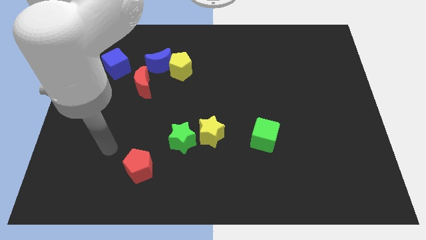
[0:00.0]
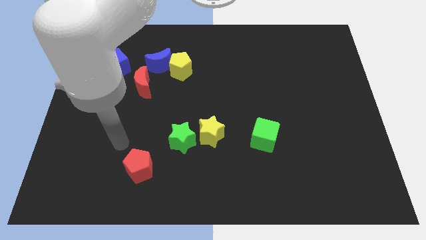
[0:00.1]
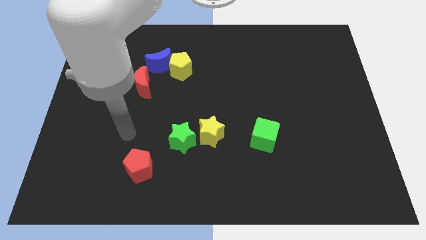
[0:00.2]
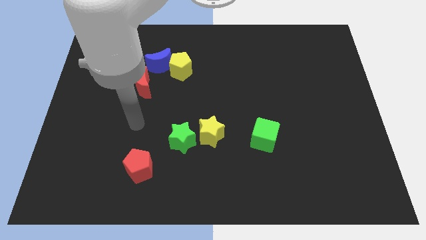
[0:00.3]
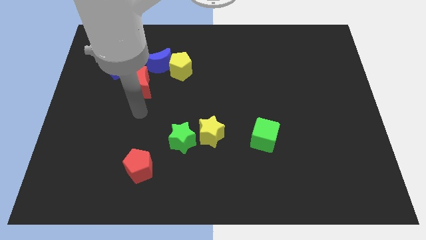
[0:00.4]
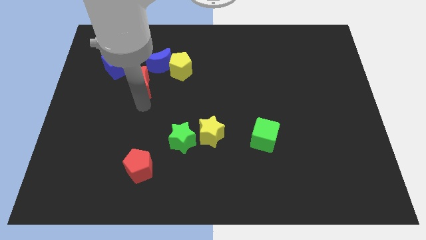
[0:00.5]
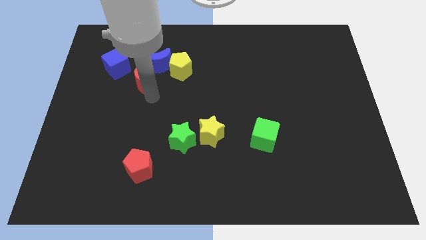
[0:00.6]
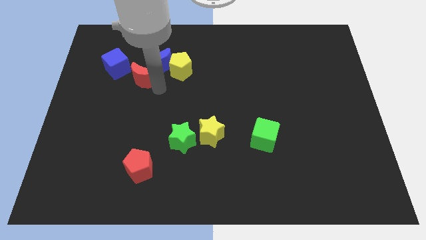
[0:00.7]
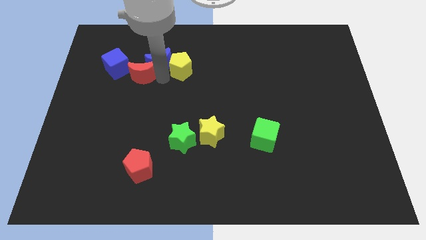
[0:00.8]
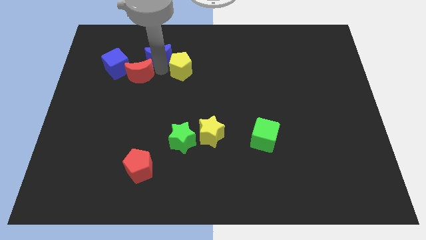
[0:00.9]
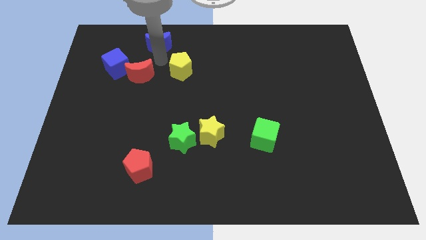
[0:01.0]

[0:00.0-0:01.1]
separate the yellow pentagon from the blue moon

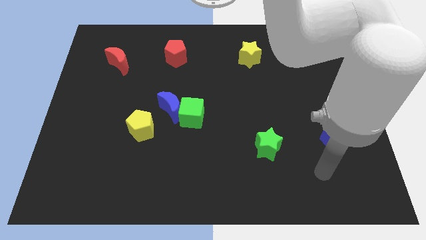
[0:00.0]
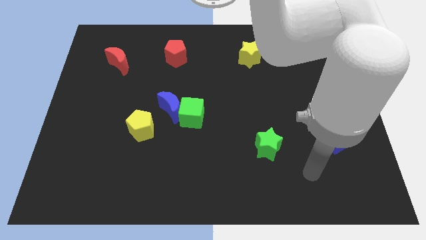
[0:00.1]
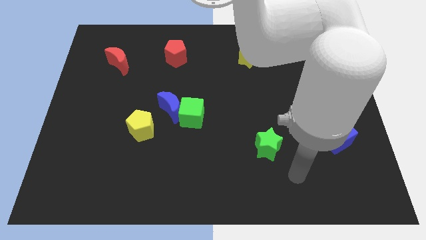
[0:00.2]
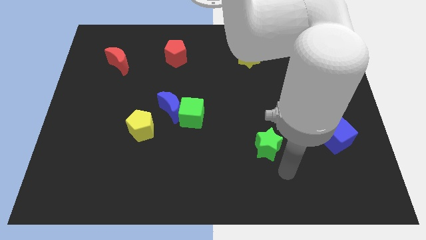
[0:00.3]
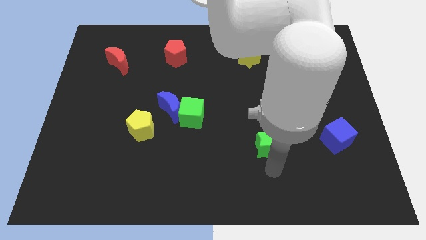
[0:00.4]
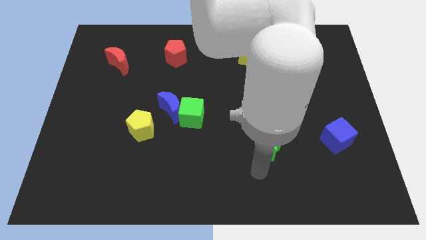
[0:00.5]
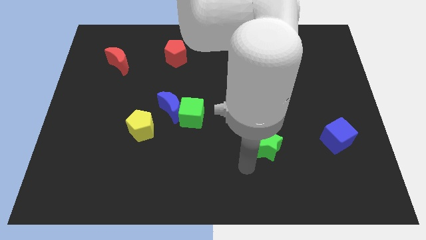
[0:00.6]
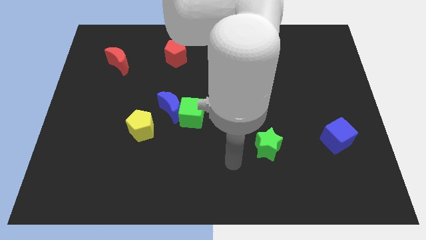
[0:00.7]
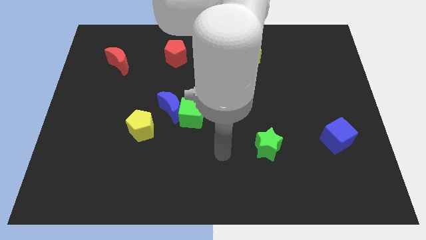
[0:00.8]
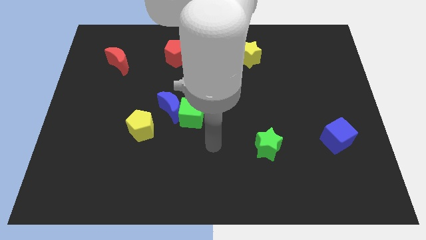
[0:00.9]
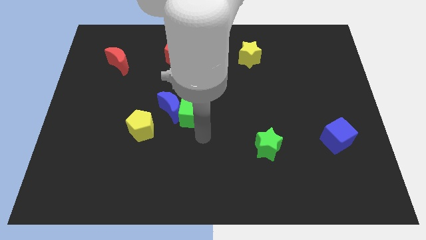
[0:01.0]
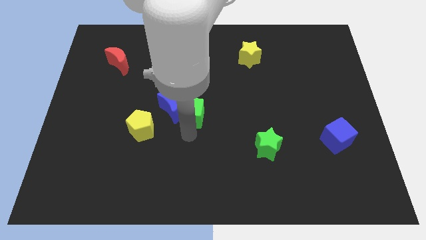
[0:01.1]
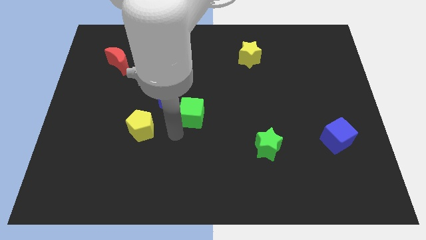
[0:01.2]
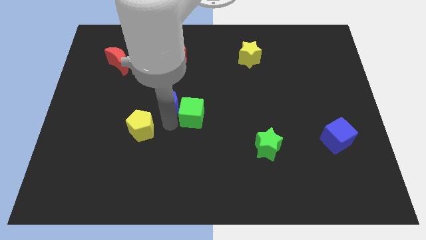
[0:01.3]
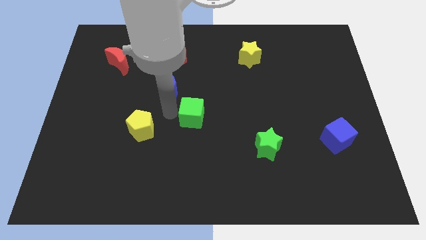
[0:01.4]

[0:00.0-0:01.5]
move the green cube away from the blue moon

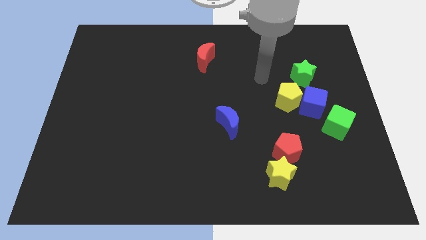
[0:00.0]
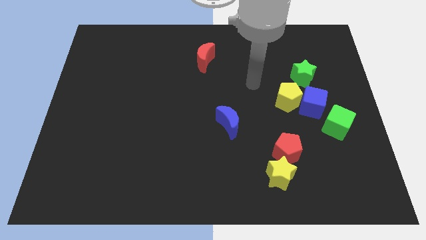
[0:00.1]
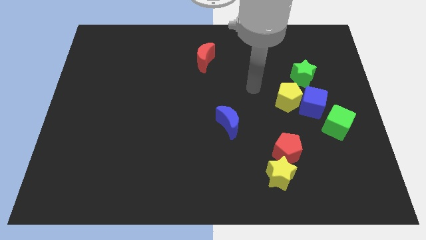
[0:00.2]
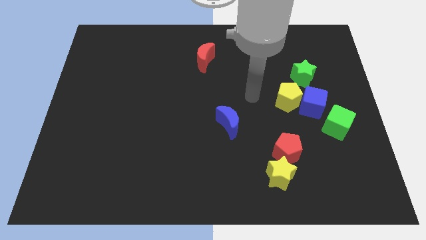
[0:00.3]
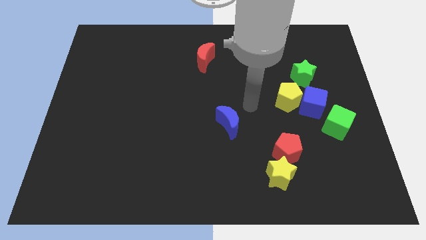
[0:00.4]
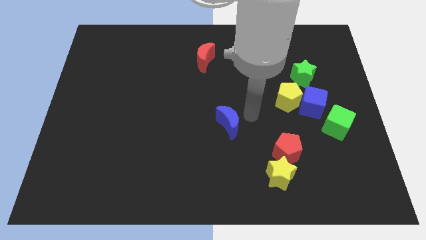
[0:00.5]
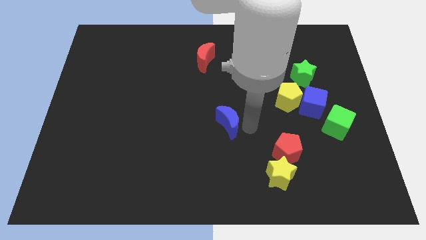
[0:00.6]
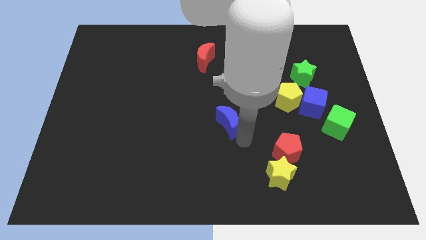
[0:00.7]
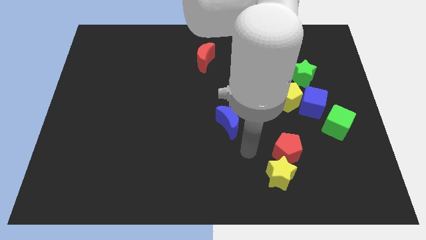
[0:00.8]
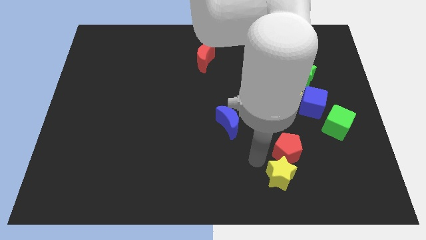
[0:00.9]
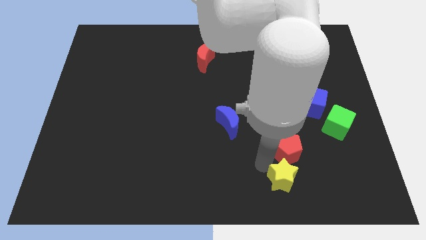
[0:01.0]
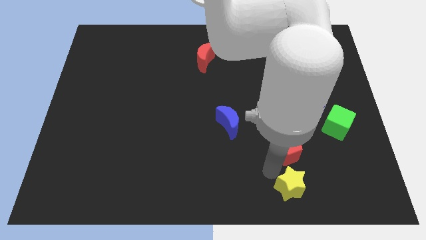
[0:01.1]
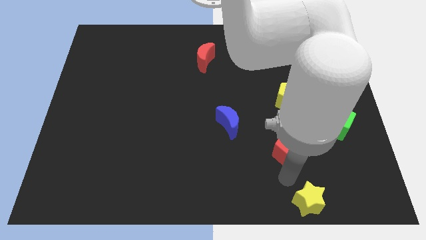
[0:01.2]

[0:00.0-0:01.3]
pull the red pentagon apart from the yellow star

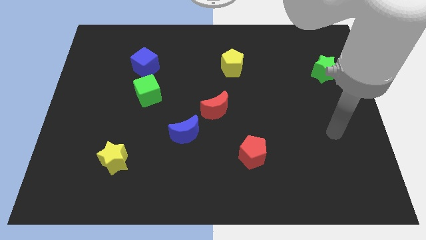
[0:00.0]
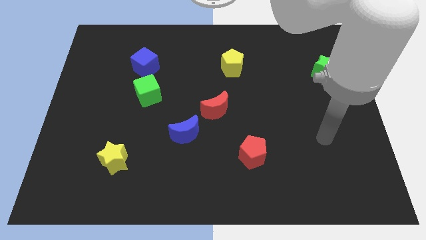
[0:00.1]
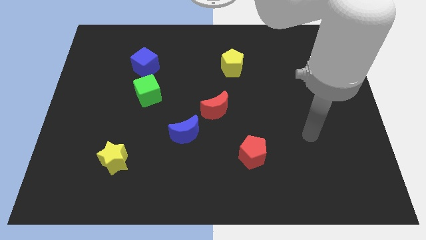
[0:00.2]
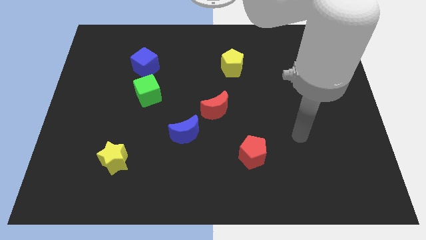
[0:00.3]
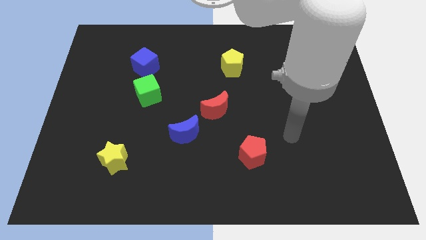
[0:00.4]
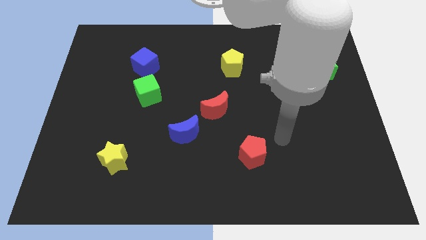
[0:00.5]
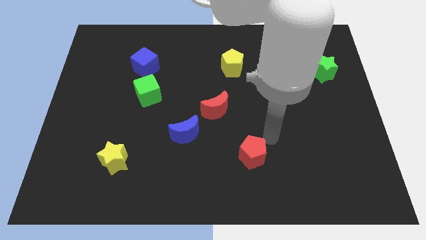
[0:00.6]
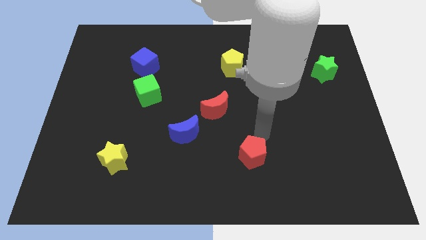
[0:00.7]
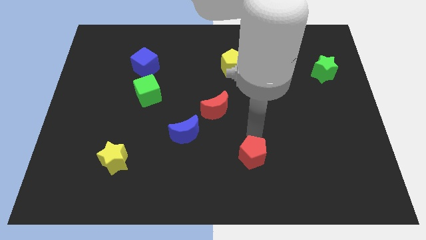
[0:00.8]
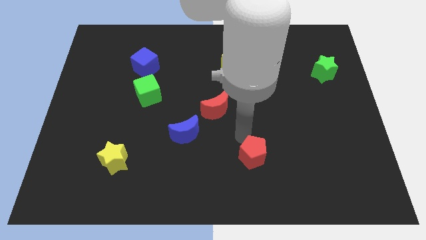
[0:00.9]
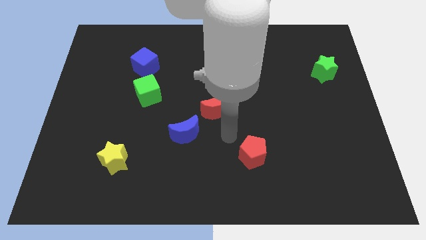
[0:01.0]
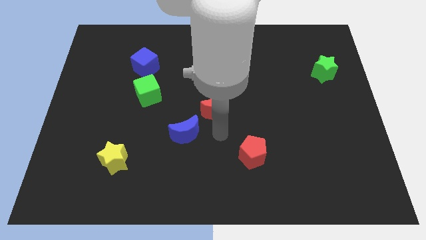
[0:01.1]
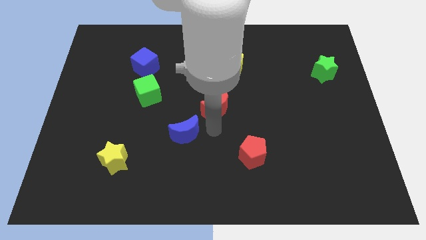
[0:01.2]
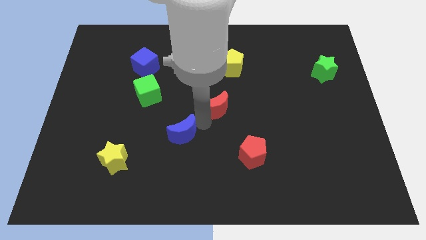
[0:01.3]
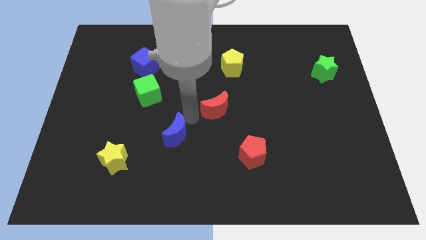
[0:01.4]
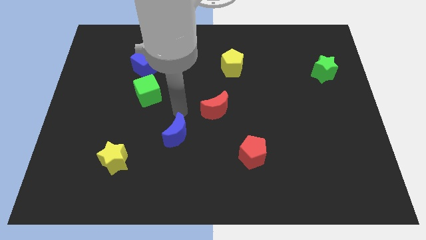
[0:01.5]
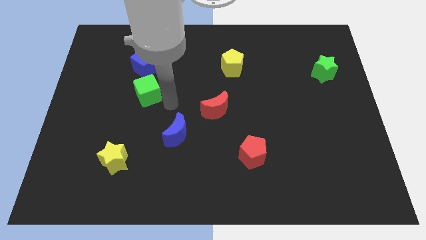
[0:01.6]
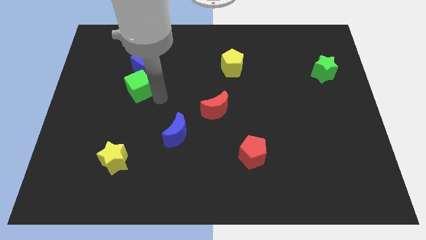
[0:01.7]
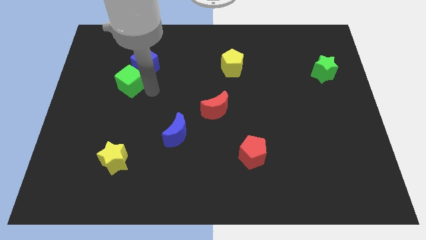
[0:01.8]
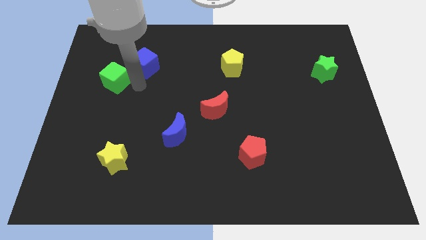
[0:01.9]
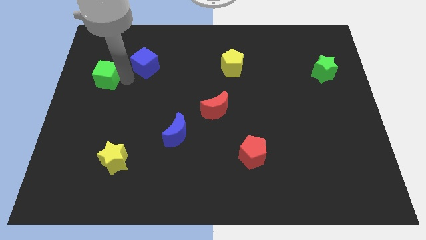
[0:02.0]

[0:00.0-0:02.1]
move the blue cube away from the green cube

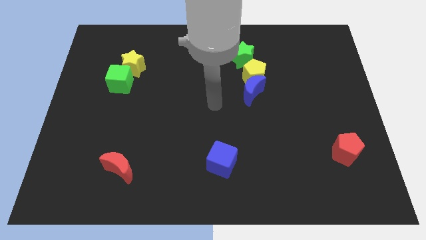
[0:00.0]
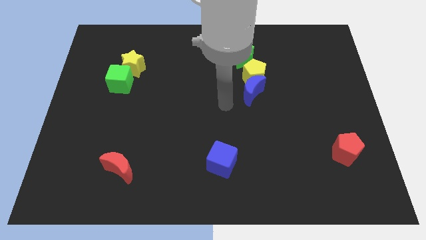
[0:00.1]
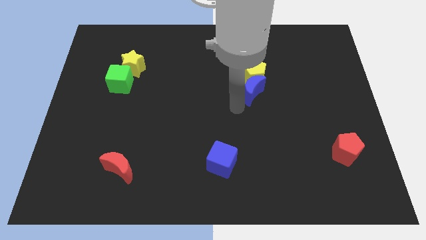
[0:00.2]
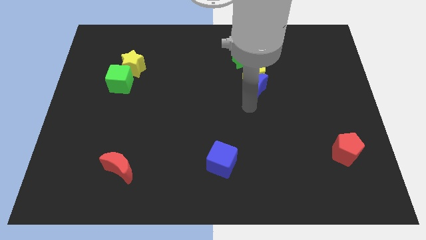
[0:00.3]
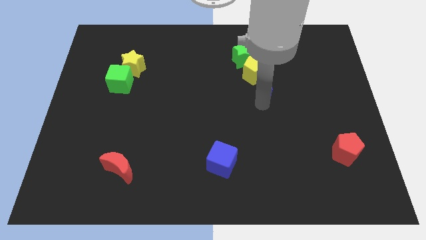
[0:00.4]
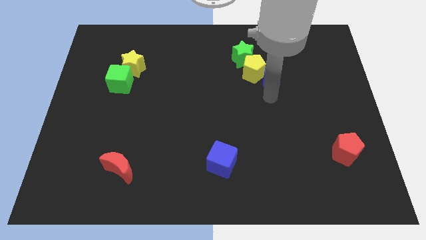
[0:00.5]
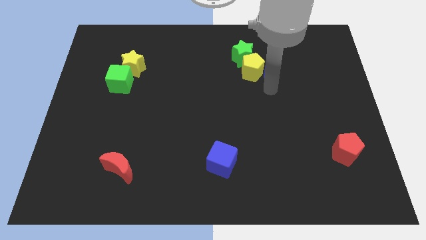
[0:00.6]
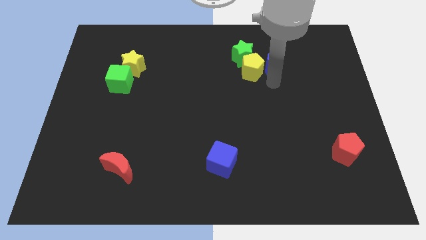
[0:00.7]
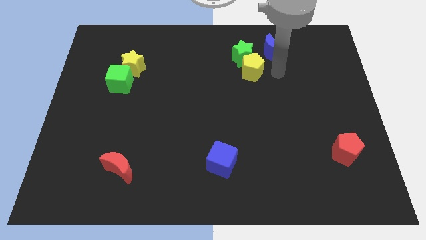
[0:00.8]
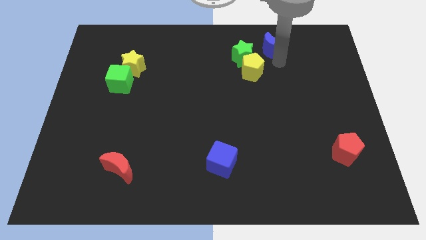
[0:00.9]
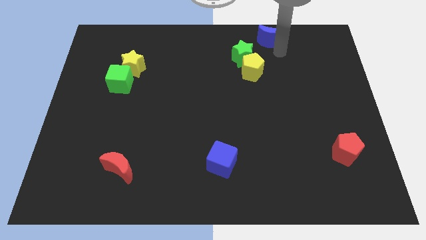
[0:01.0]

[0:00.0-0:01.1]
pull the blue moon apart from the yellow pentagon

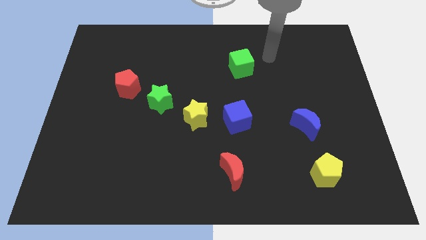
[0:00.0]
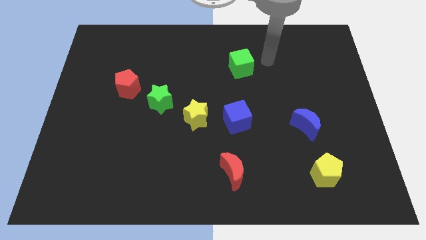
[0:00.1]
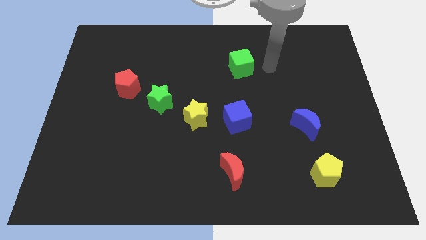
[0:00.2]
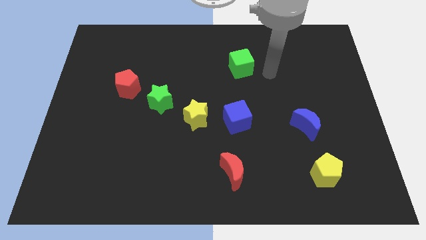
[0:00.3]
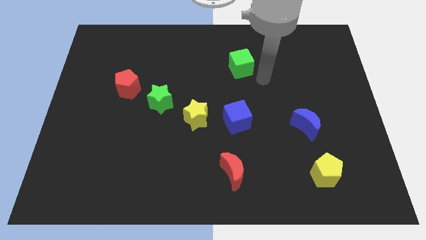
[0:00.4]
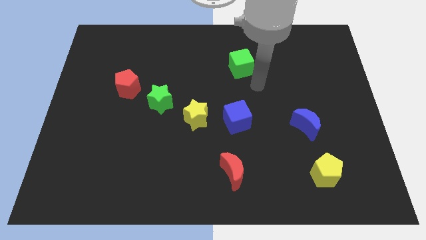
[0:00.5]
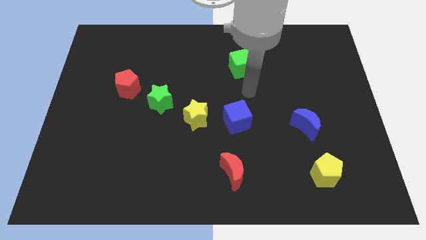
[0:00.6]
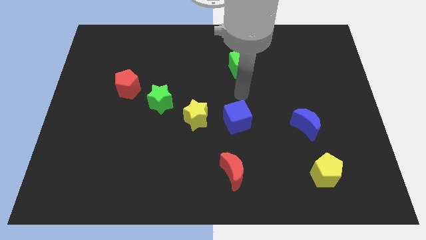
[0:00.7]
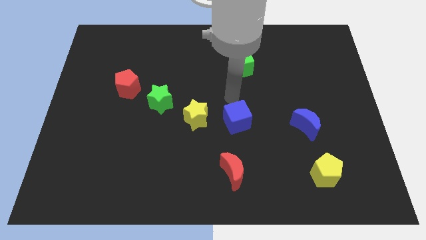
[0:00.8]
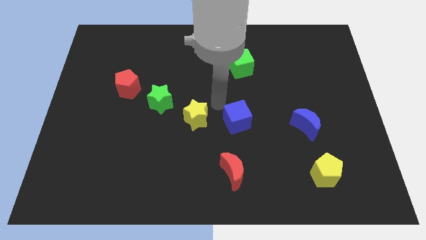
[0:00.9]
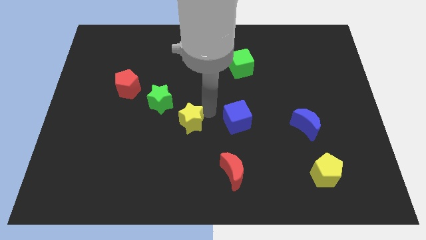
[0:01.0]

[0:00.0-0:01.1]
pull the blue cube apart from the yellow star

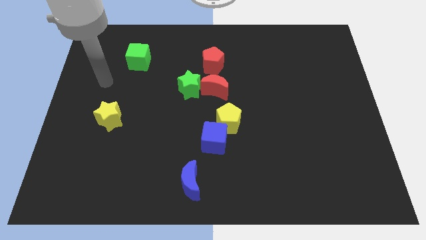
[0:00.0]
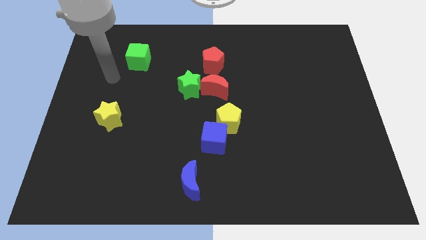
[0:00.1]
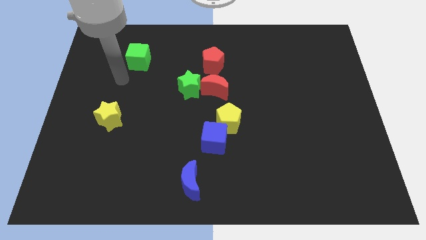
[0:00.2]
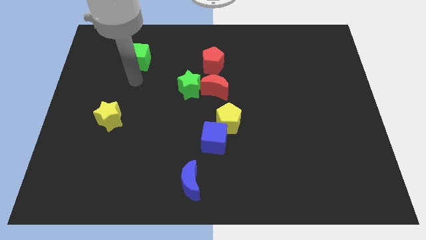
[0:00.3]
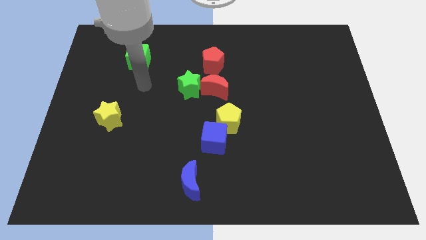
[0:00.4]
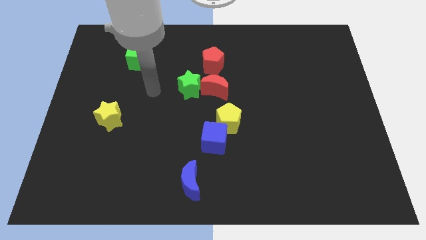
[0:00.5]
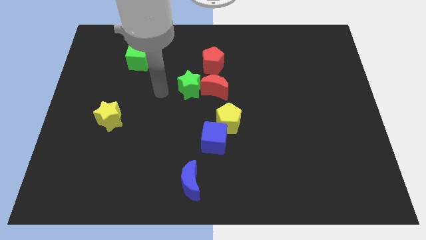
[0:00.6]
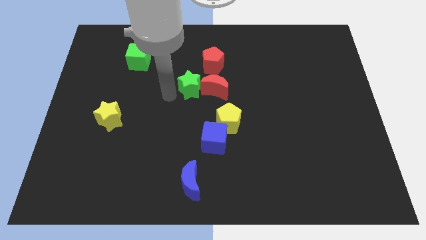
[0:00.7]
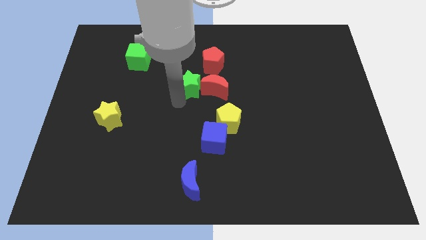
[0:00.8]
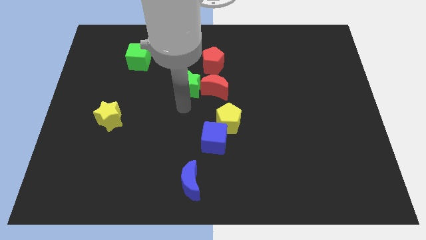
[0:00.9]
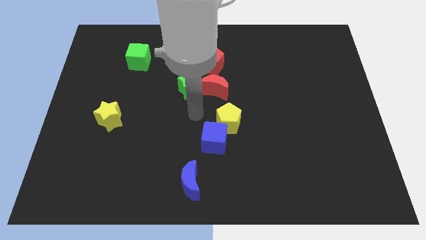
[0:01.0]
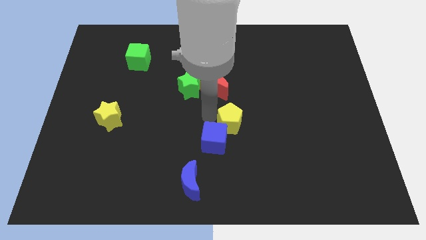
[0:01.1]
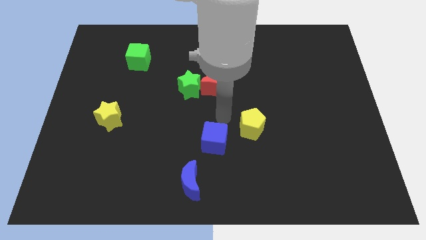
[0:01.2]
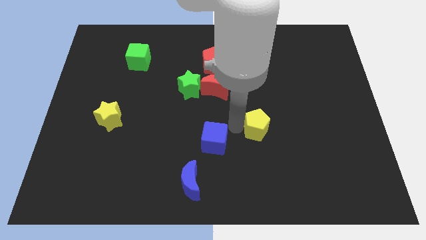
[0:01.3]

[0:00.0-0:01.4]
pull the blue cube apart from the yellow pentagon
